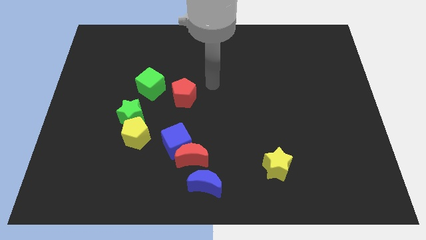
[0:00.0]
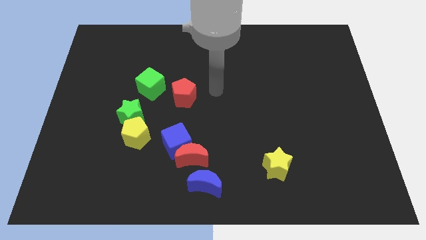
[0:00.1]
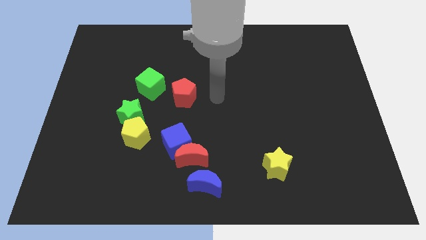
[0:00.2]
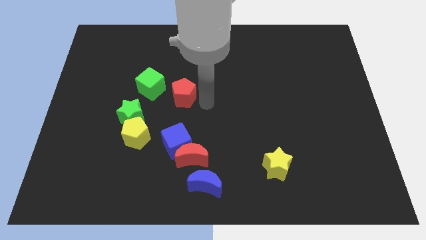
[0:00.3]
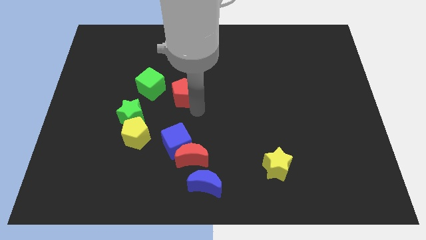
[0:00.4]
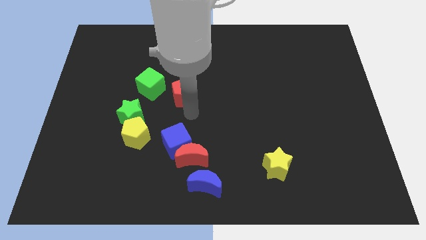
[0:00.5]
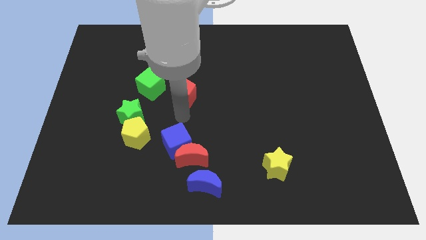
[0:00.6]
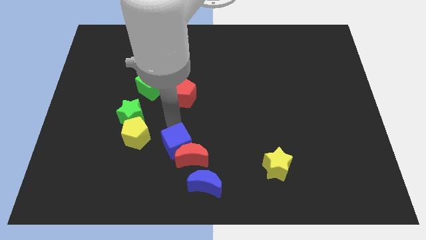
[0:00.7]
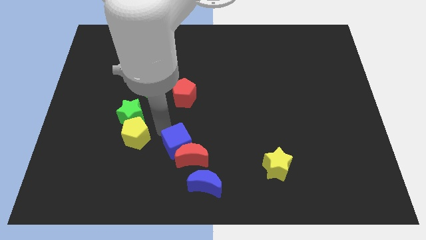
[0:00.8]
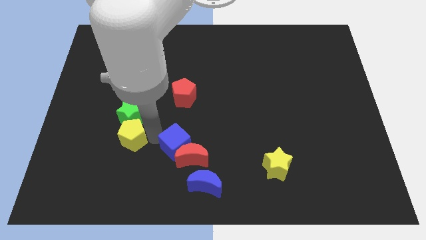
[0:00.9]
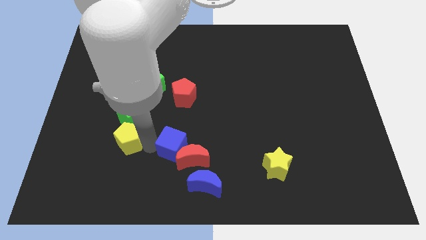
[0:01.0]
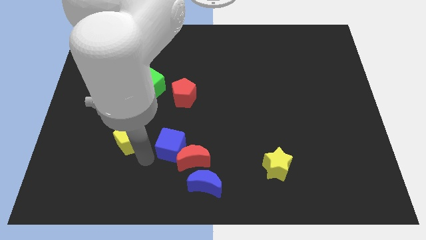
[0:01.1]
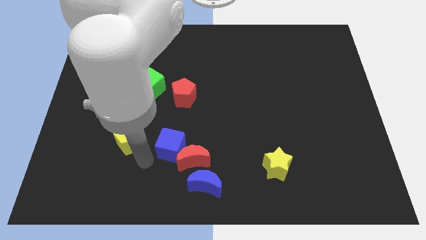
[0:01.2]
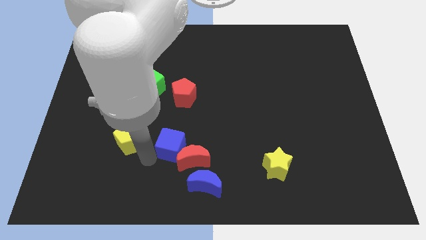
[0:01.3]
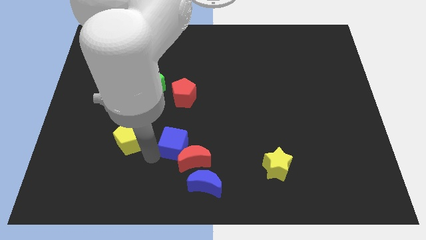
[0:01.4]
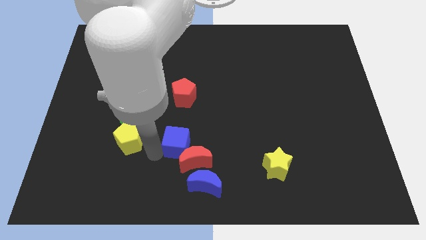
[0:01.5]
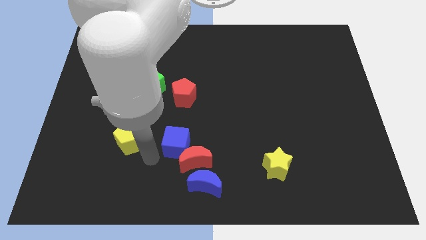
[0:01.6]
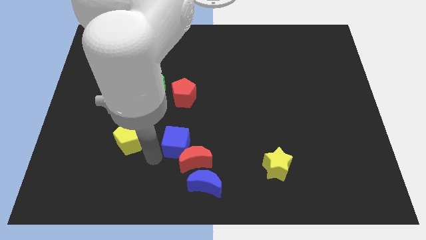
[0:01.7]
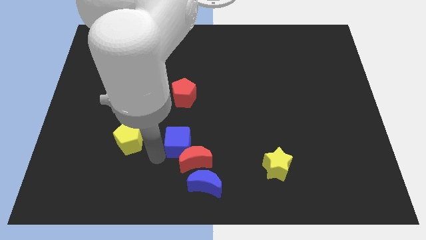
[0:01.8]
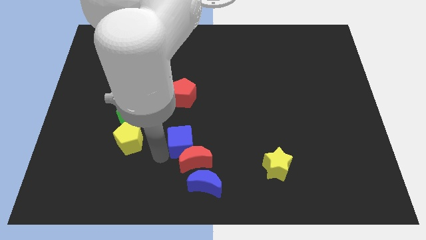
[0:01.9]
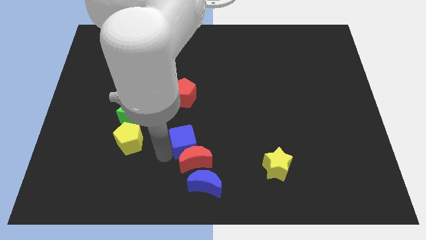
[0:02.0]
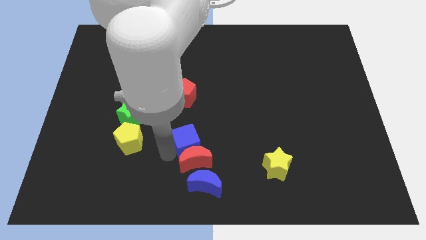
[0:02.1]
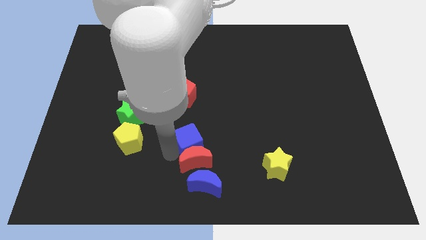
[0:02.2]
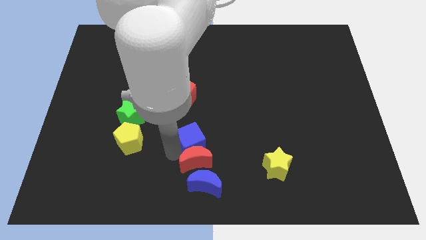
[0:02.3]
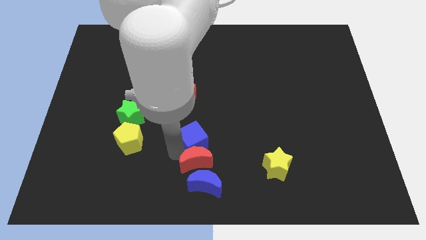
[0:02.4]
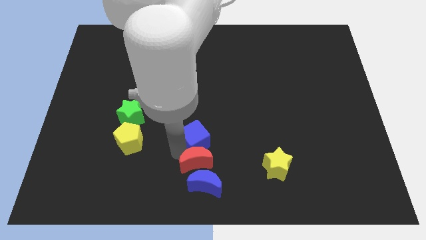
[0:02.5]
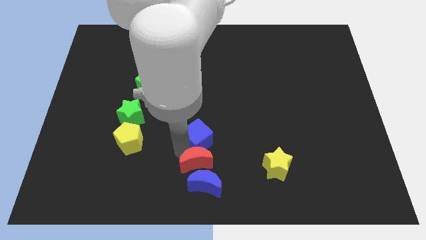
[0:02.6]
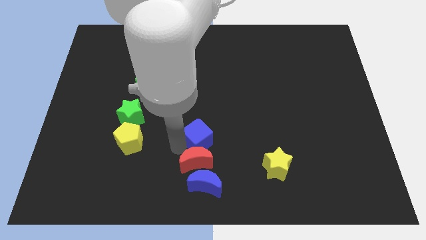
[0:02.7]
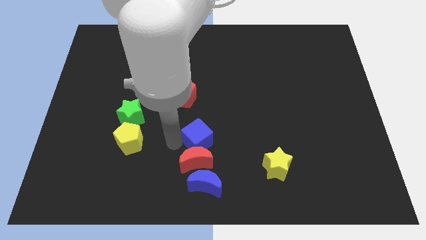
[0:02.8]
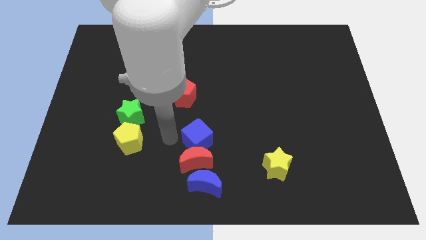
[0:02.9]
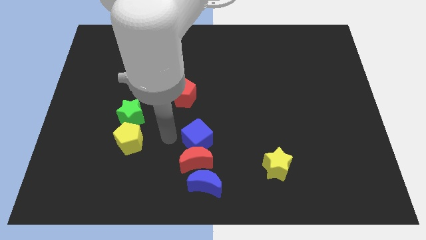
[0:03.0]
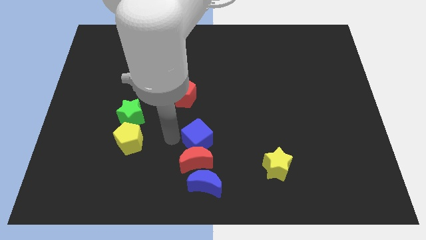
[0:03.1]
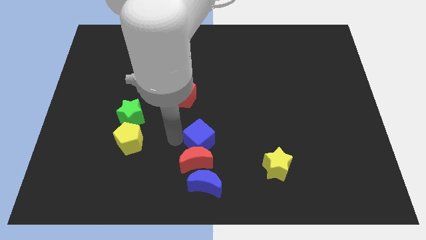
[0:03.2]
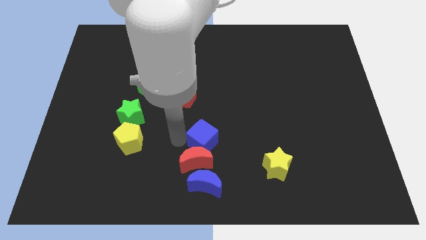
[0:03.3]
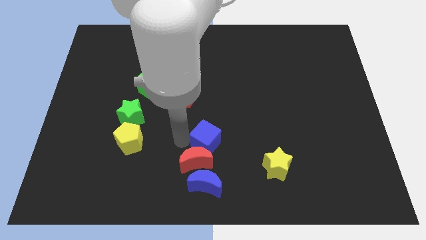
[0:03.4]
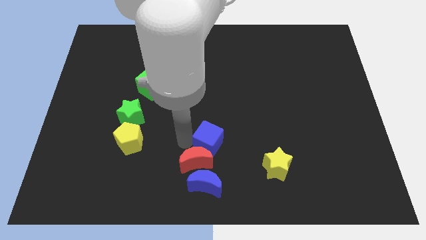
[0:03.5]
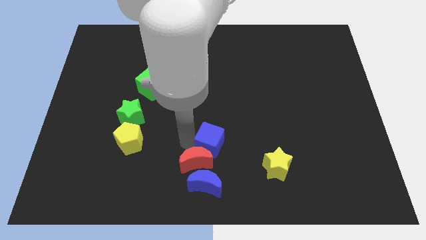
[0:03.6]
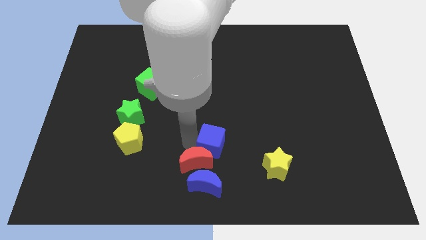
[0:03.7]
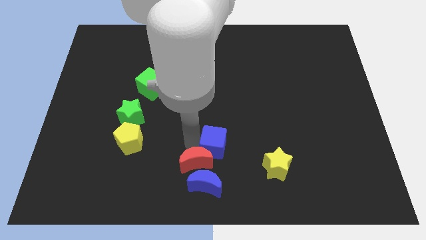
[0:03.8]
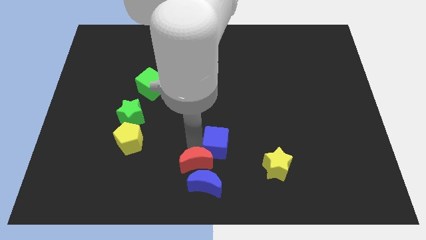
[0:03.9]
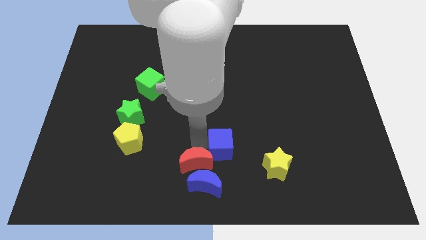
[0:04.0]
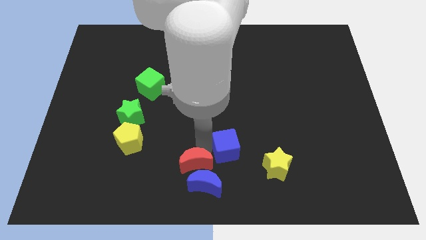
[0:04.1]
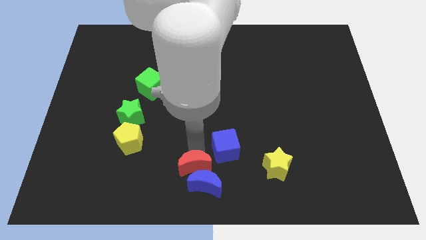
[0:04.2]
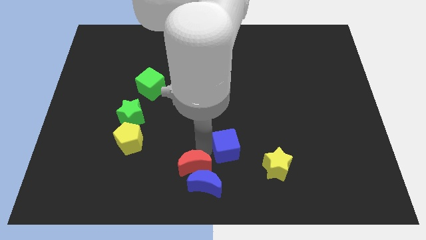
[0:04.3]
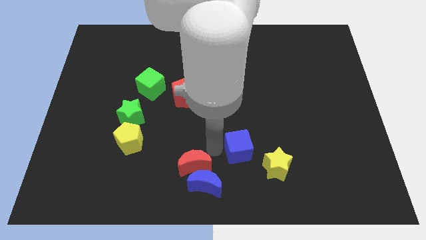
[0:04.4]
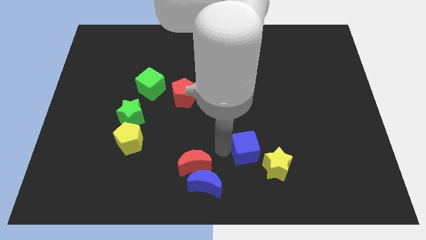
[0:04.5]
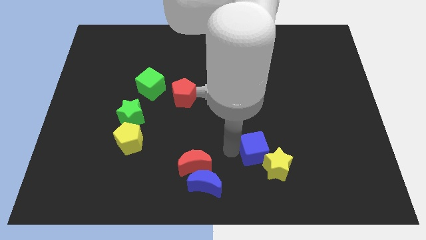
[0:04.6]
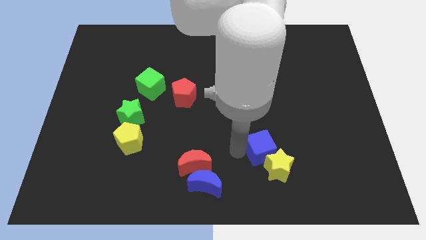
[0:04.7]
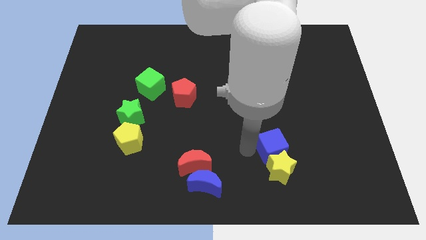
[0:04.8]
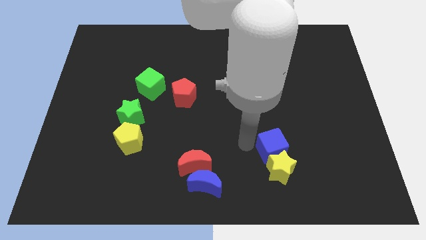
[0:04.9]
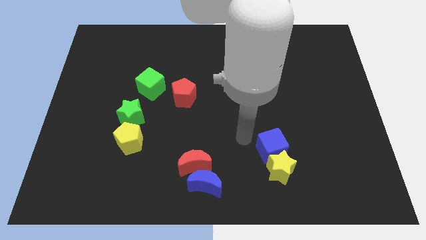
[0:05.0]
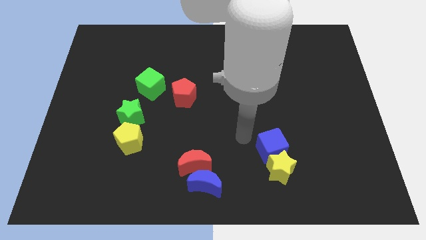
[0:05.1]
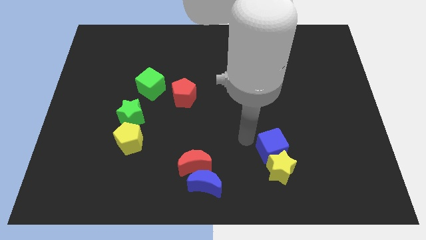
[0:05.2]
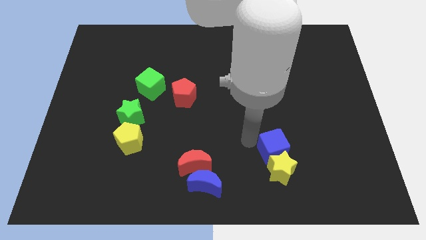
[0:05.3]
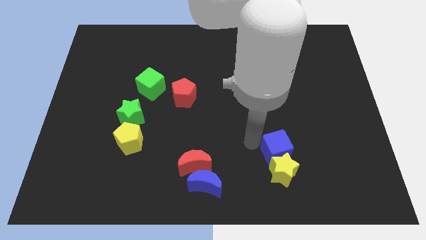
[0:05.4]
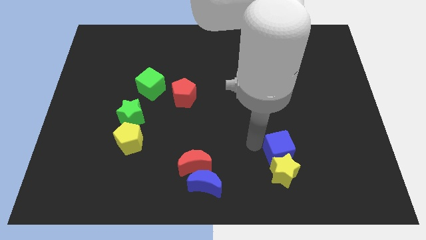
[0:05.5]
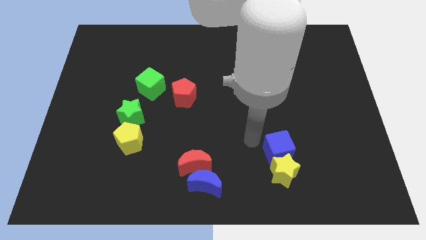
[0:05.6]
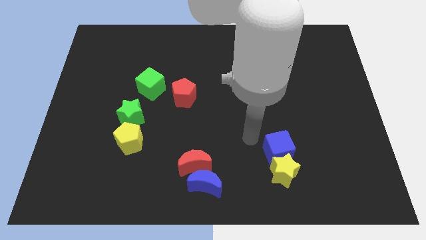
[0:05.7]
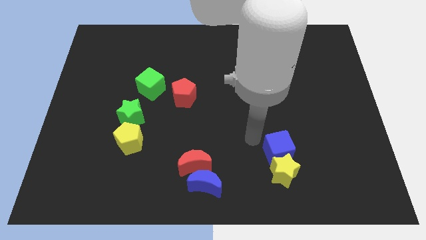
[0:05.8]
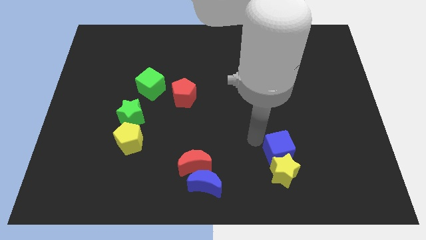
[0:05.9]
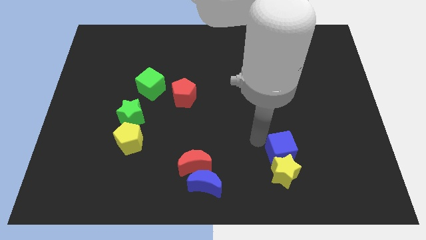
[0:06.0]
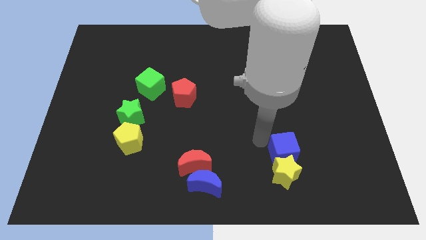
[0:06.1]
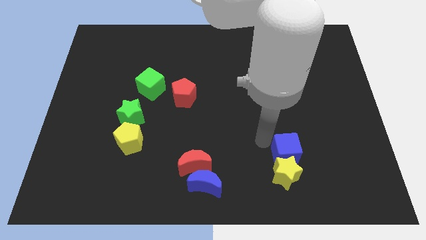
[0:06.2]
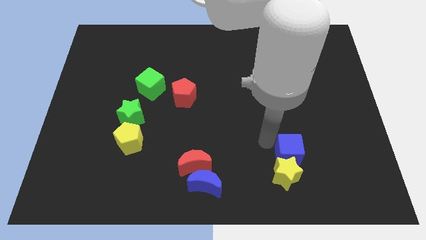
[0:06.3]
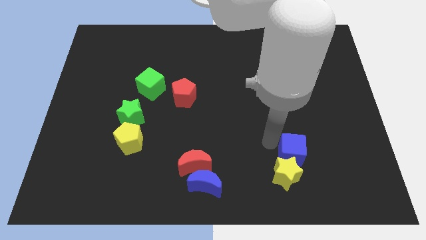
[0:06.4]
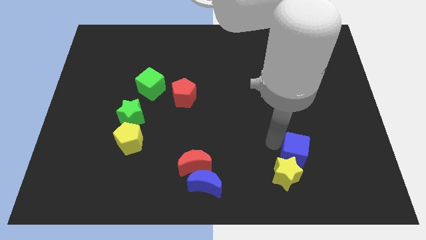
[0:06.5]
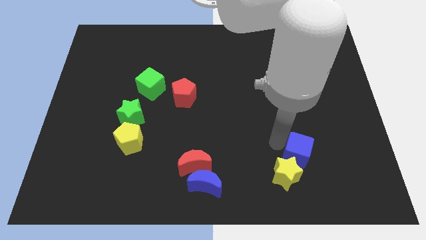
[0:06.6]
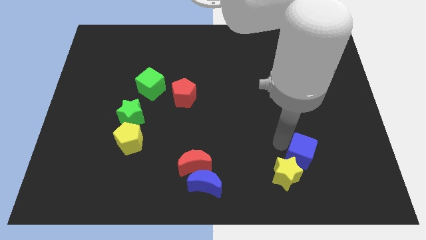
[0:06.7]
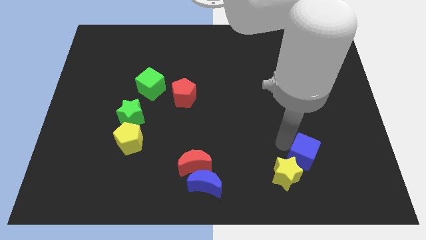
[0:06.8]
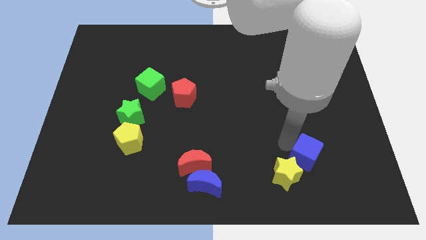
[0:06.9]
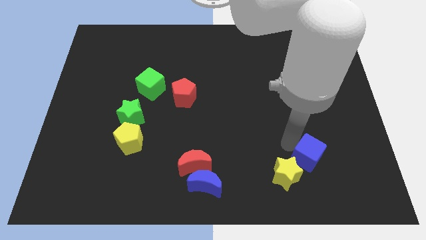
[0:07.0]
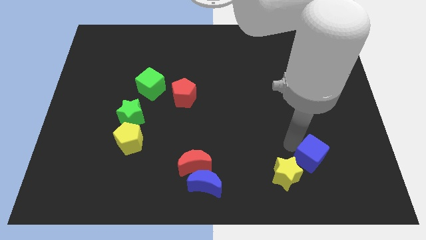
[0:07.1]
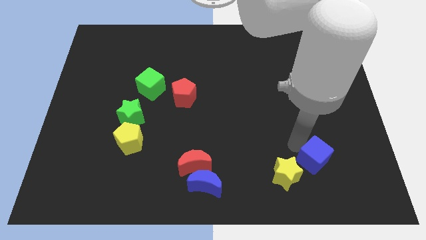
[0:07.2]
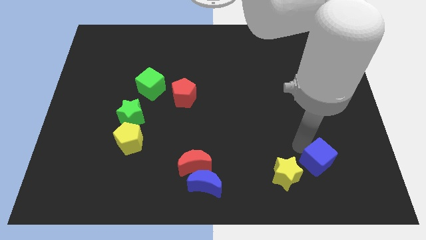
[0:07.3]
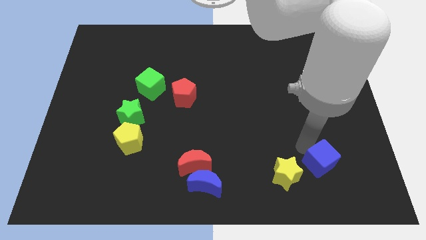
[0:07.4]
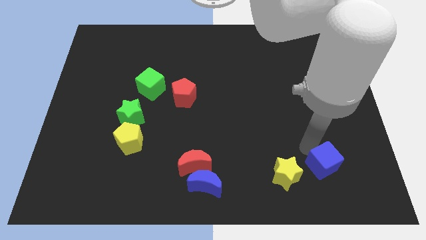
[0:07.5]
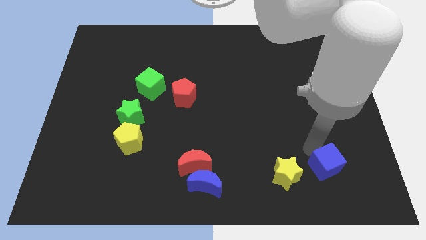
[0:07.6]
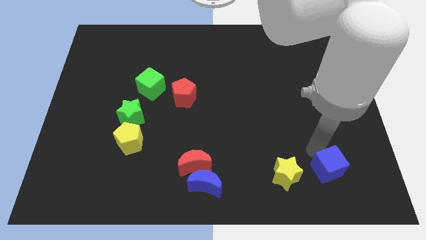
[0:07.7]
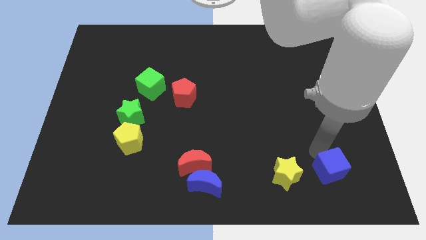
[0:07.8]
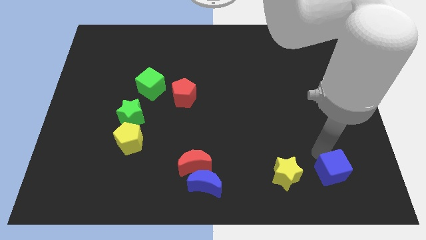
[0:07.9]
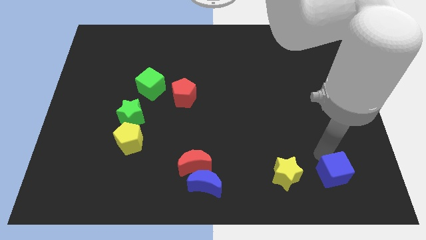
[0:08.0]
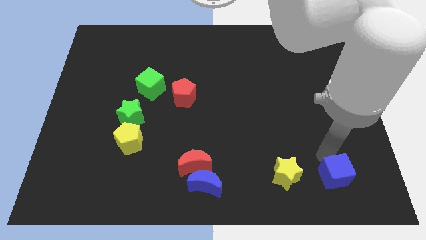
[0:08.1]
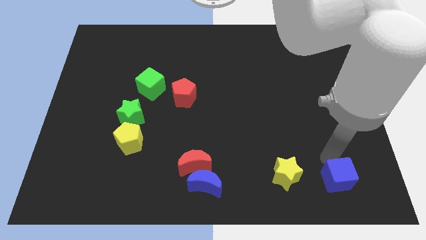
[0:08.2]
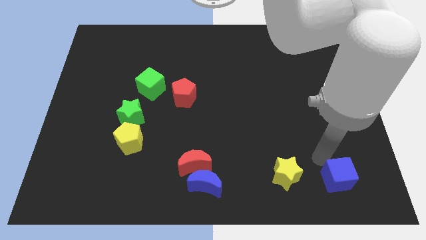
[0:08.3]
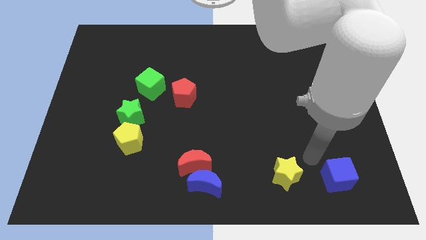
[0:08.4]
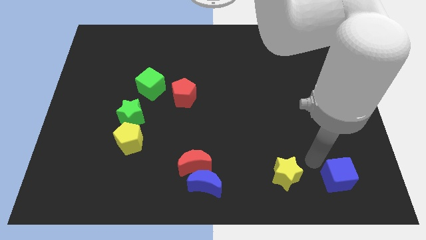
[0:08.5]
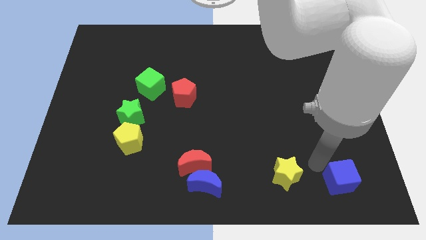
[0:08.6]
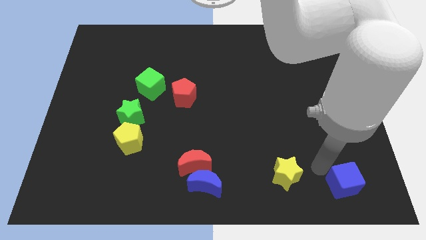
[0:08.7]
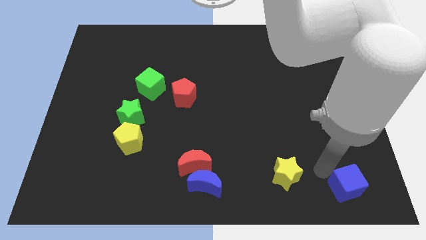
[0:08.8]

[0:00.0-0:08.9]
move the blue cube to the bottom right corner
